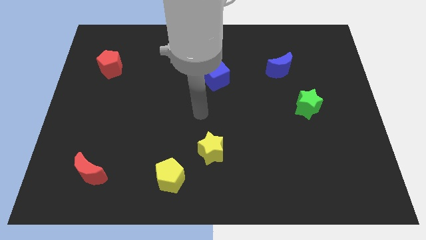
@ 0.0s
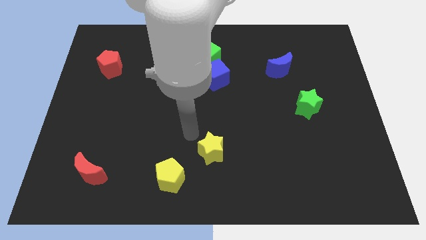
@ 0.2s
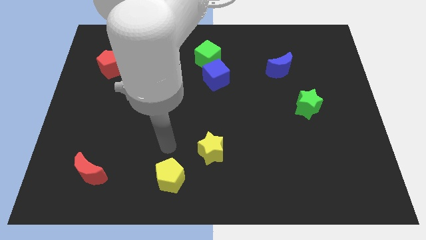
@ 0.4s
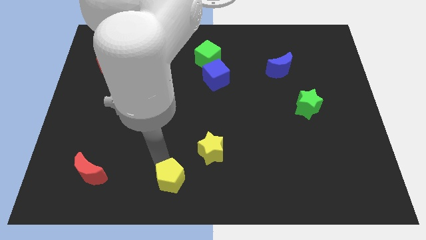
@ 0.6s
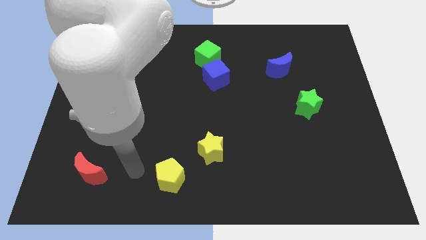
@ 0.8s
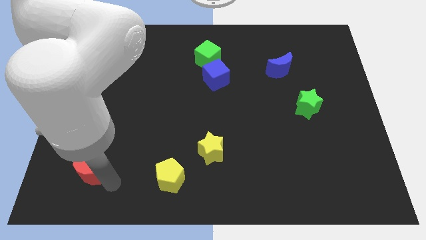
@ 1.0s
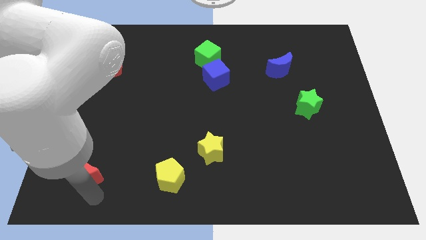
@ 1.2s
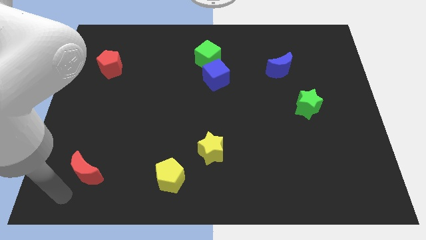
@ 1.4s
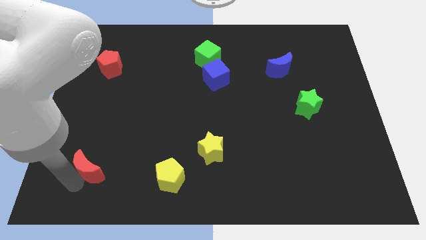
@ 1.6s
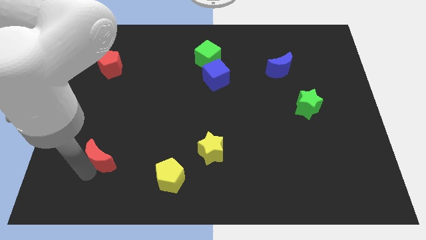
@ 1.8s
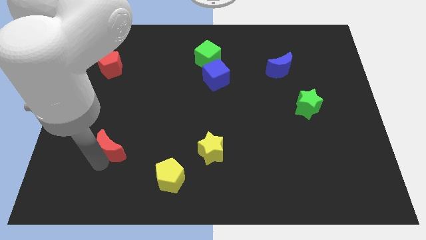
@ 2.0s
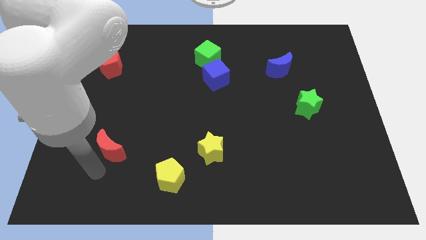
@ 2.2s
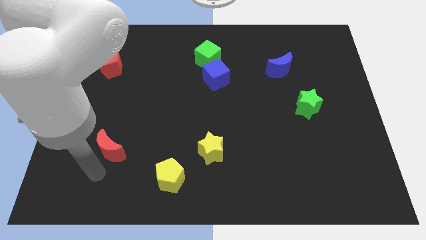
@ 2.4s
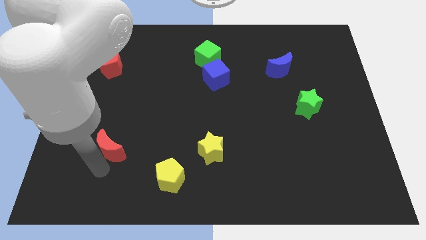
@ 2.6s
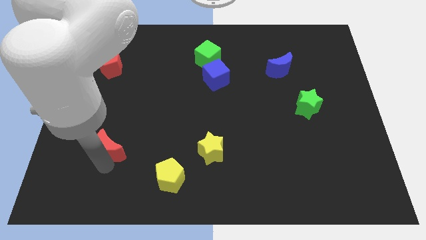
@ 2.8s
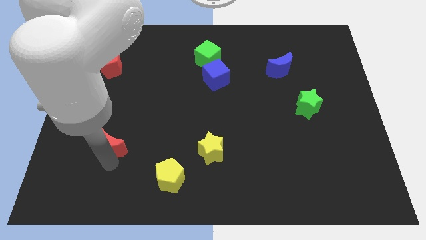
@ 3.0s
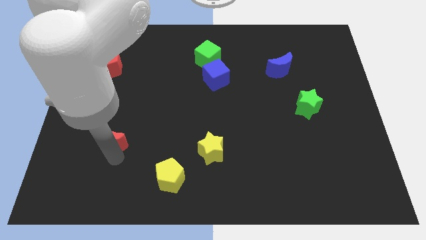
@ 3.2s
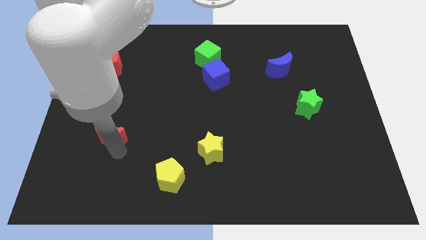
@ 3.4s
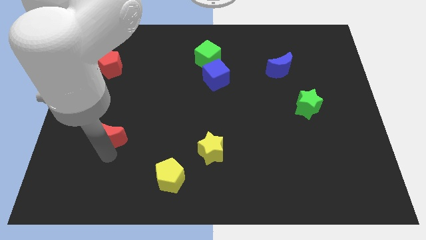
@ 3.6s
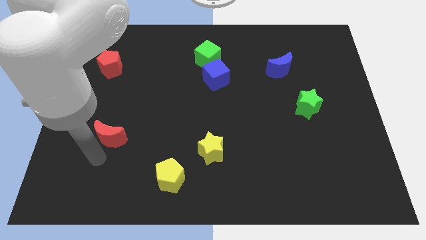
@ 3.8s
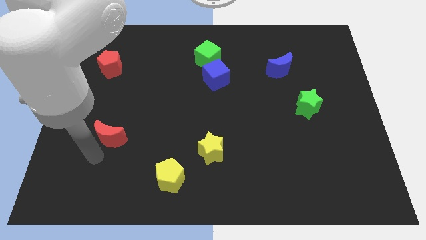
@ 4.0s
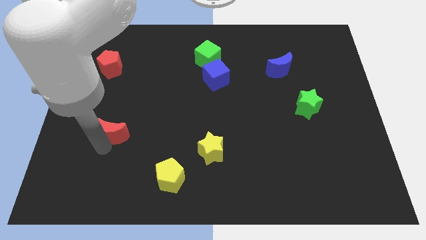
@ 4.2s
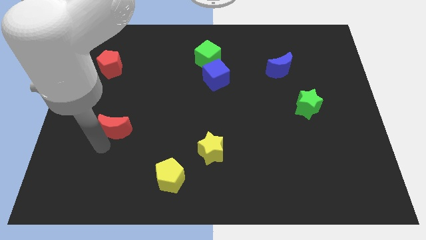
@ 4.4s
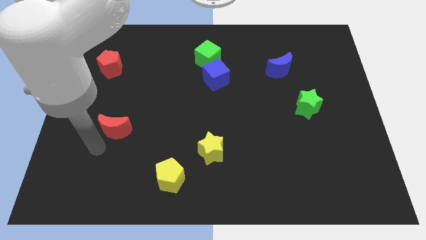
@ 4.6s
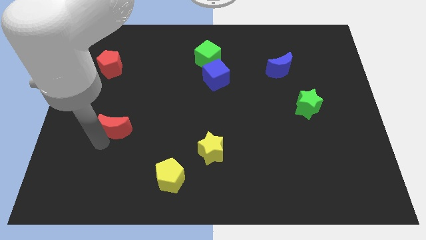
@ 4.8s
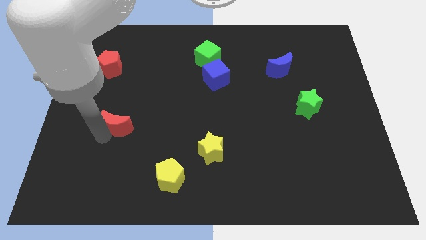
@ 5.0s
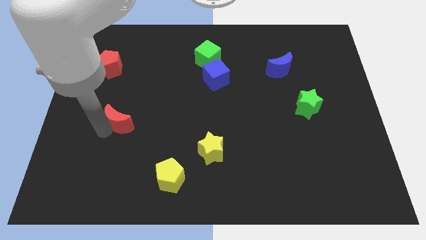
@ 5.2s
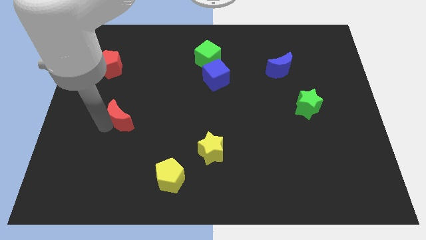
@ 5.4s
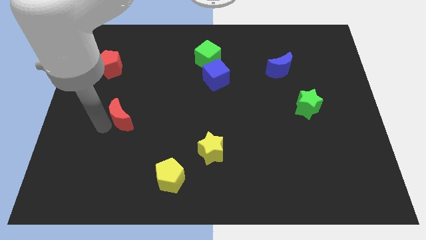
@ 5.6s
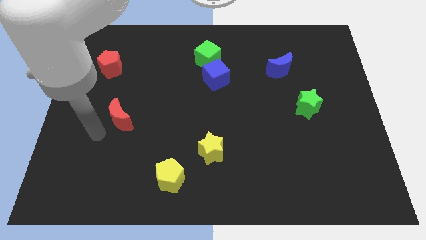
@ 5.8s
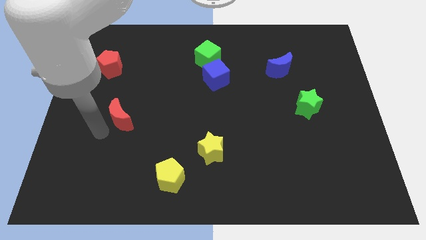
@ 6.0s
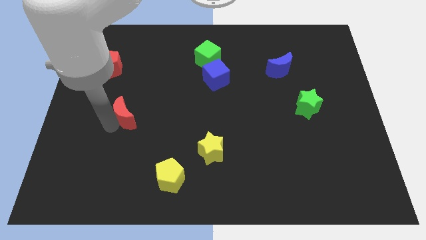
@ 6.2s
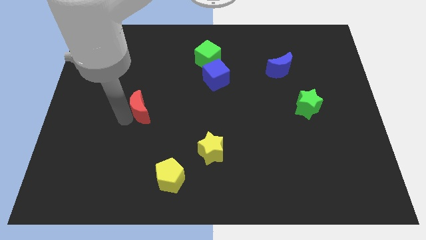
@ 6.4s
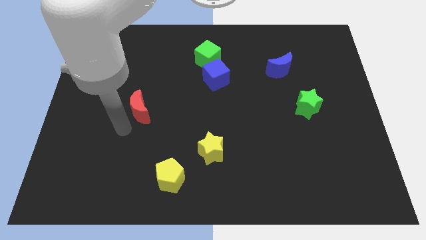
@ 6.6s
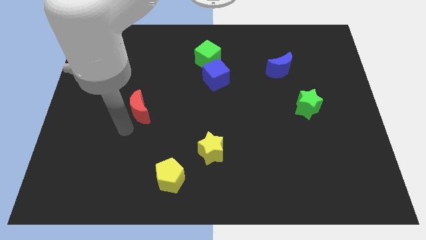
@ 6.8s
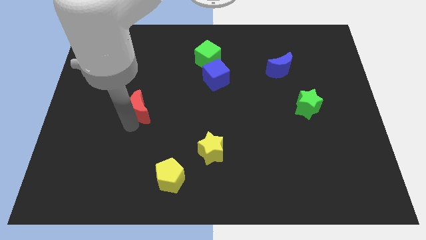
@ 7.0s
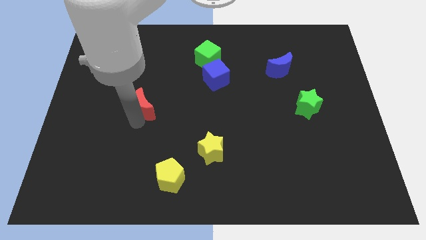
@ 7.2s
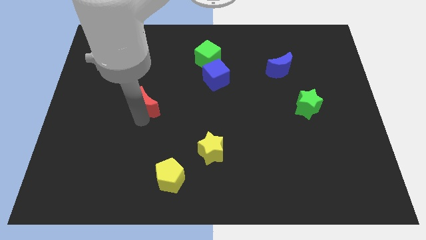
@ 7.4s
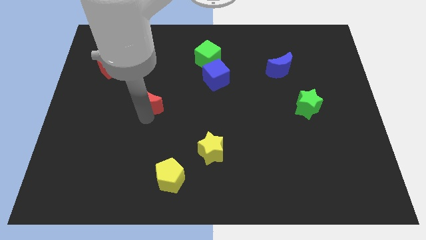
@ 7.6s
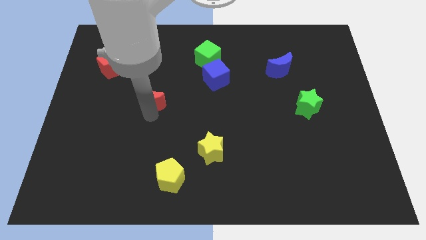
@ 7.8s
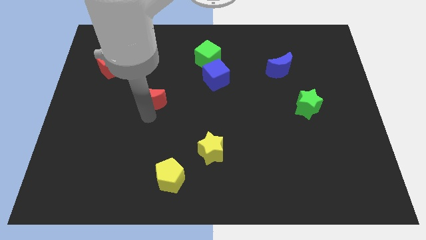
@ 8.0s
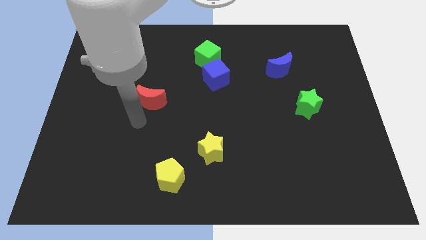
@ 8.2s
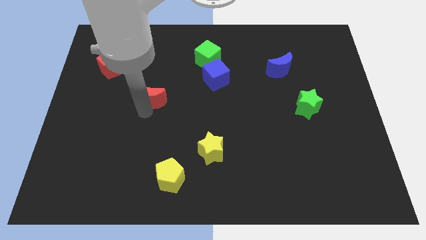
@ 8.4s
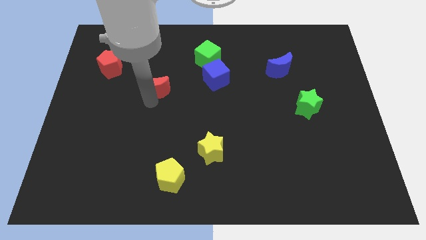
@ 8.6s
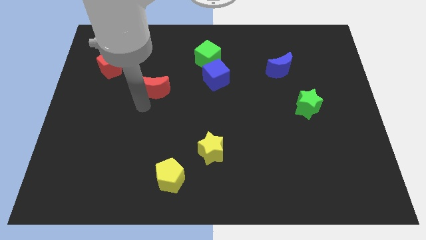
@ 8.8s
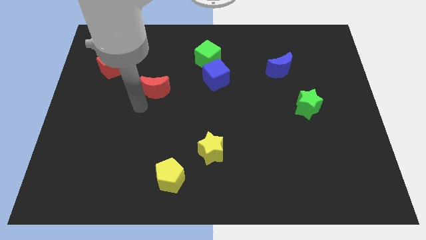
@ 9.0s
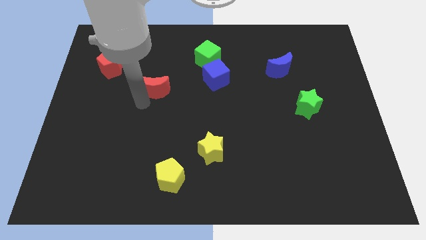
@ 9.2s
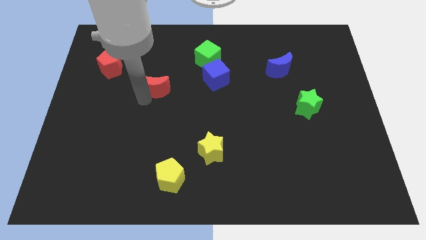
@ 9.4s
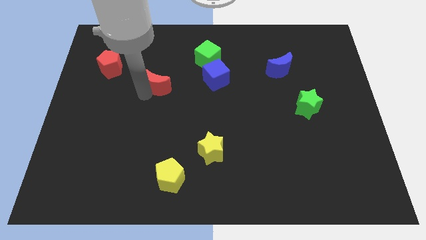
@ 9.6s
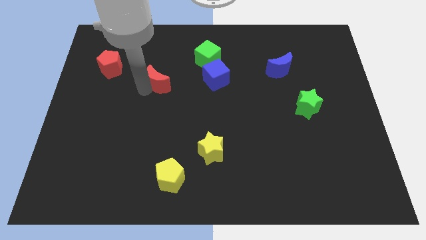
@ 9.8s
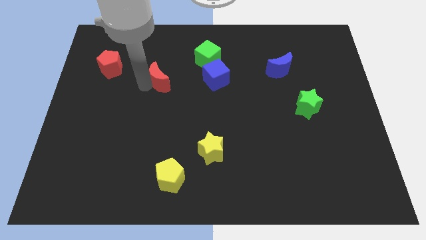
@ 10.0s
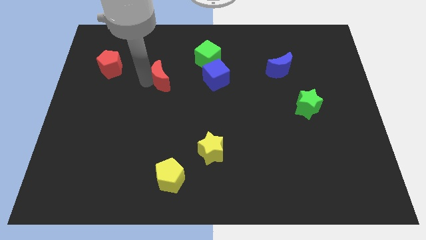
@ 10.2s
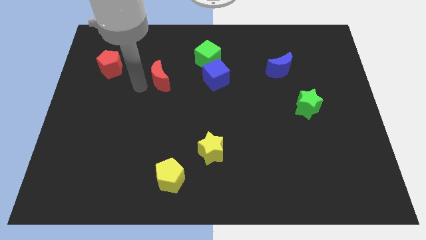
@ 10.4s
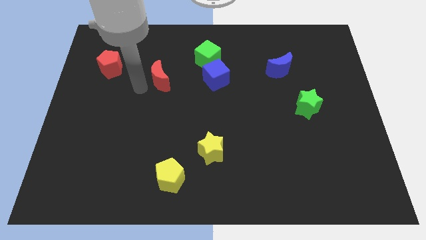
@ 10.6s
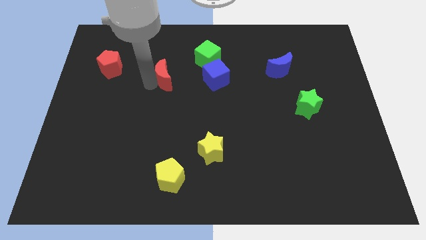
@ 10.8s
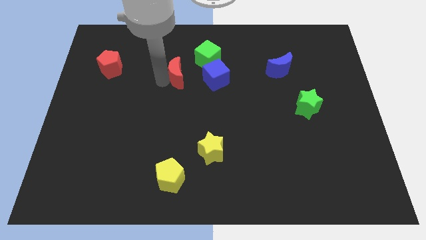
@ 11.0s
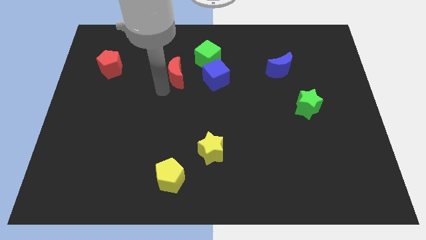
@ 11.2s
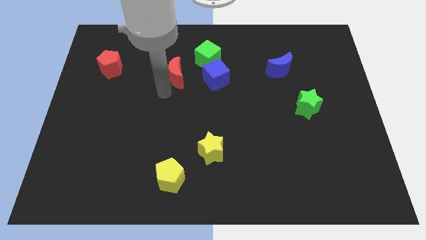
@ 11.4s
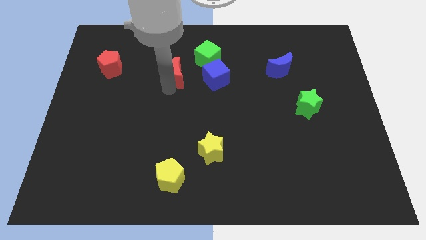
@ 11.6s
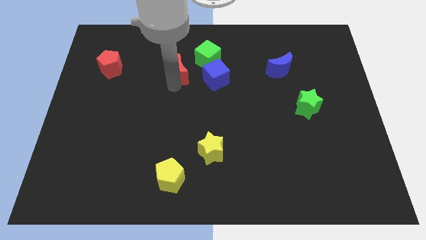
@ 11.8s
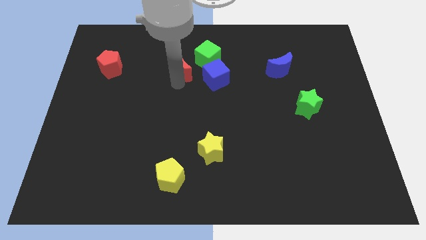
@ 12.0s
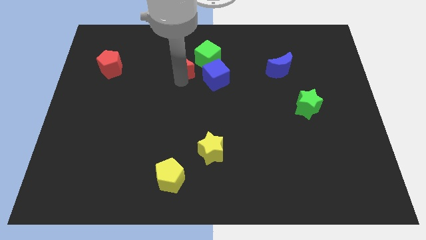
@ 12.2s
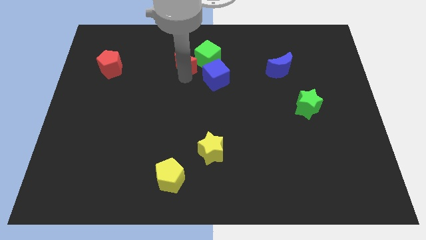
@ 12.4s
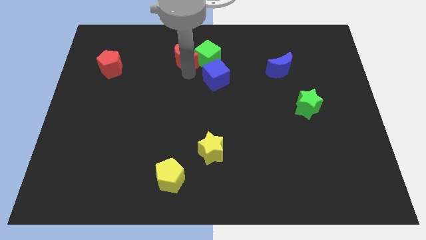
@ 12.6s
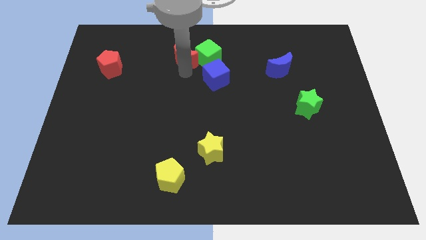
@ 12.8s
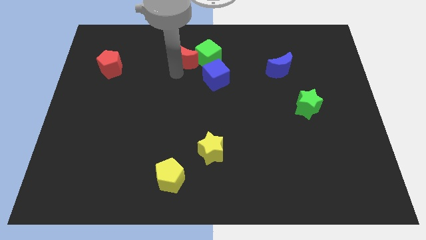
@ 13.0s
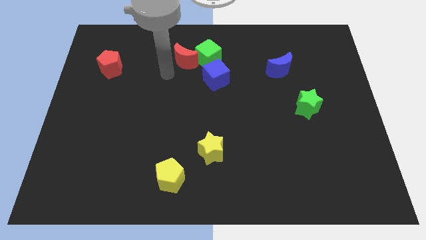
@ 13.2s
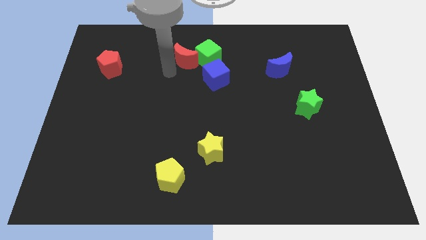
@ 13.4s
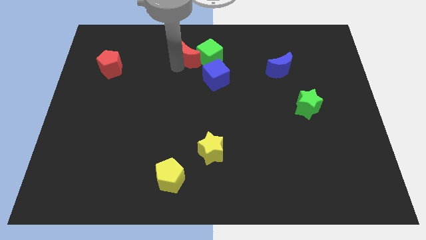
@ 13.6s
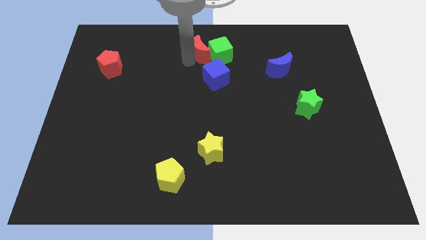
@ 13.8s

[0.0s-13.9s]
put the red moon to the top
